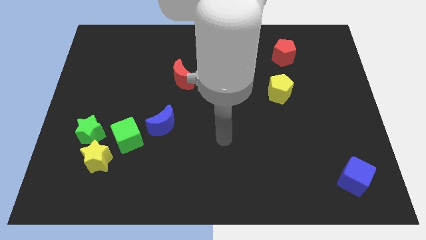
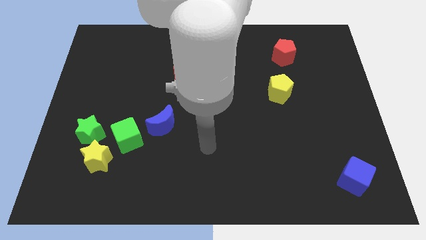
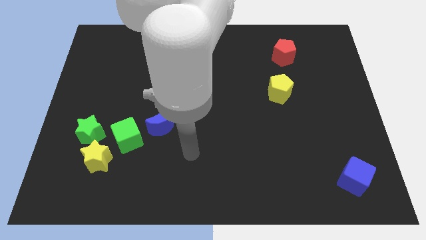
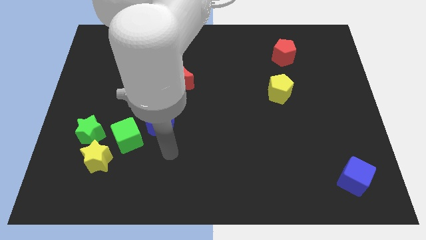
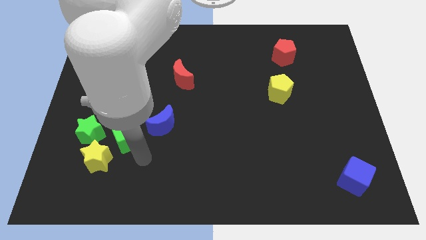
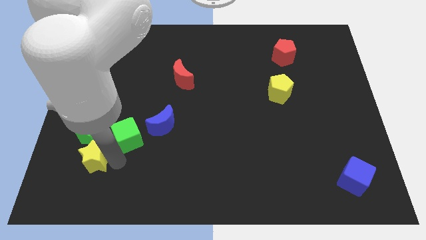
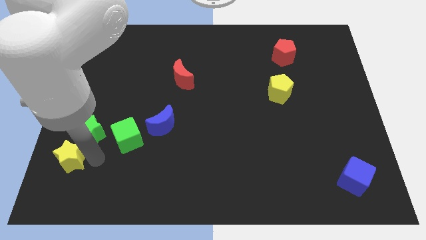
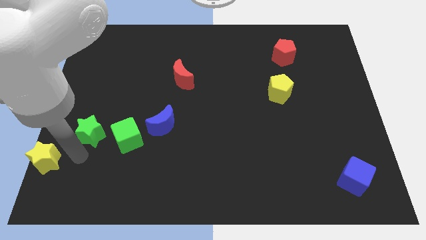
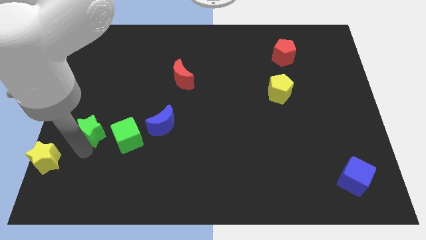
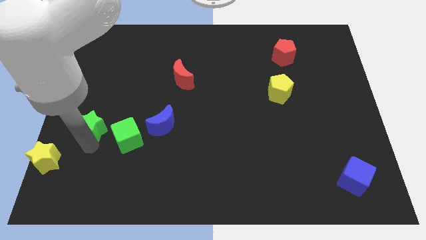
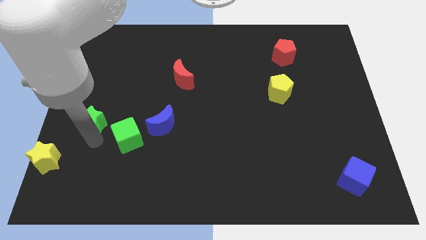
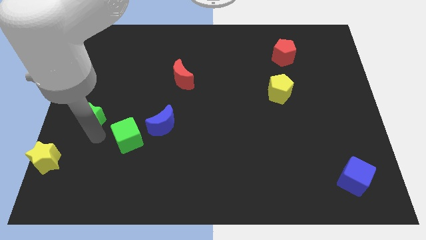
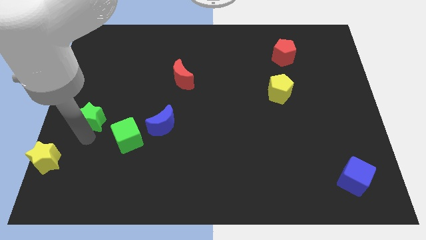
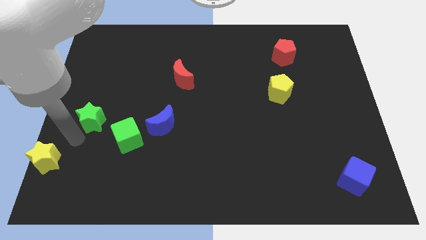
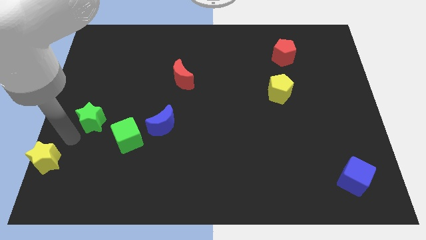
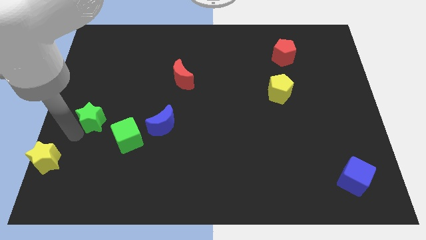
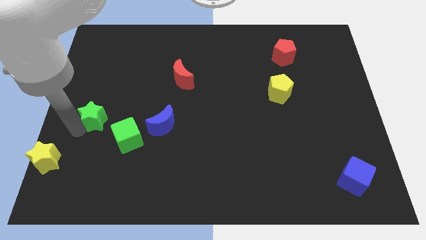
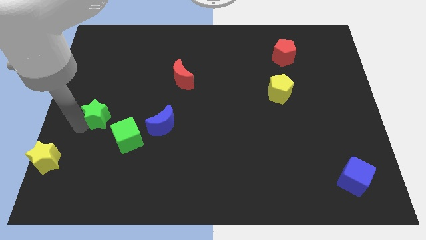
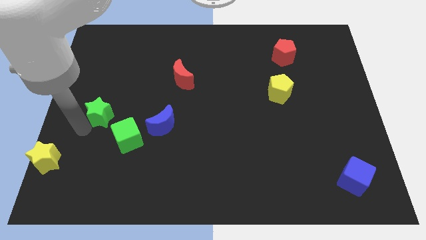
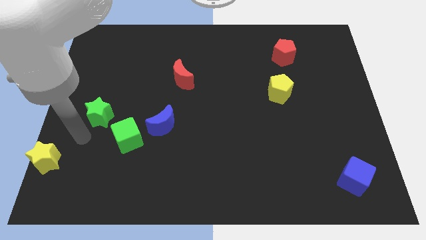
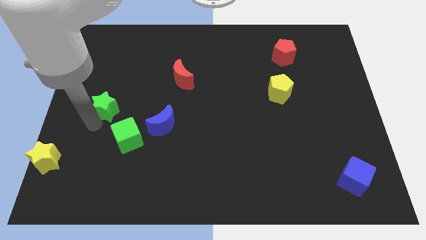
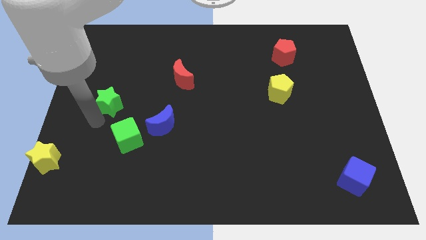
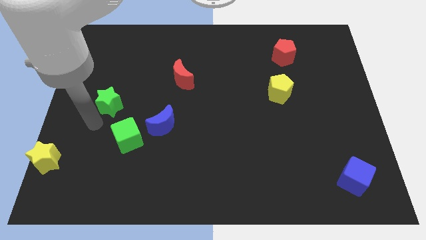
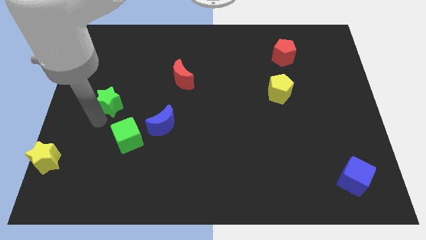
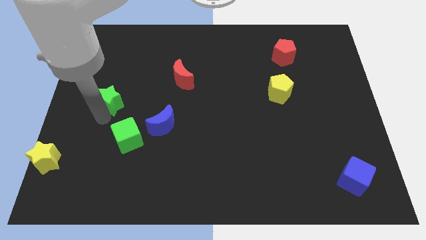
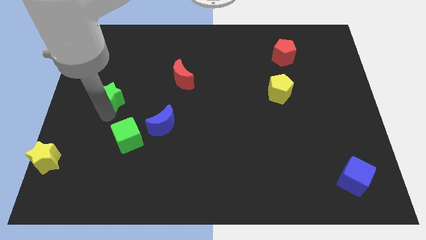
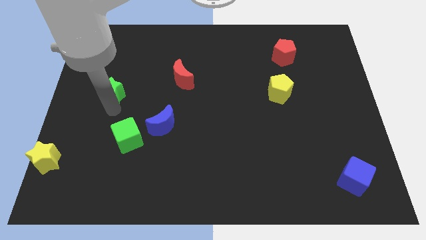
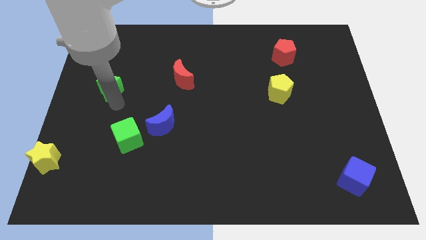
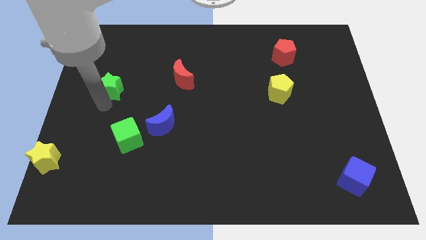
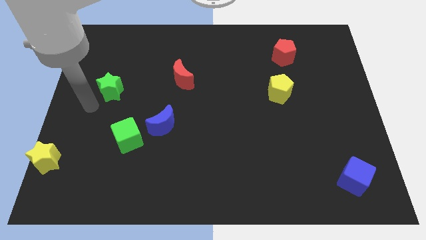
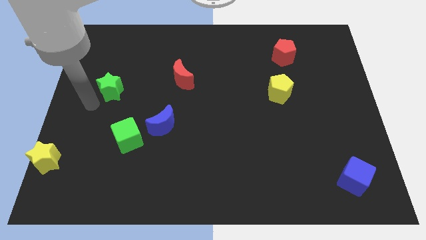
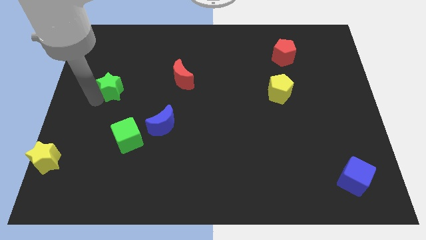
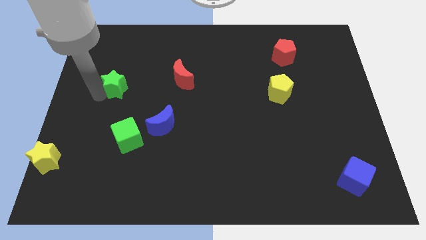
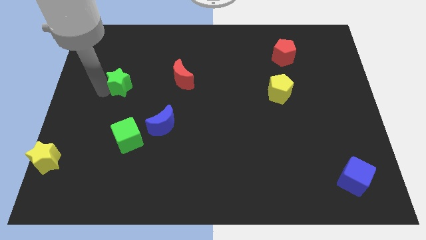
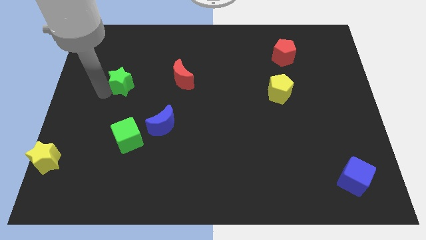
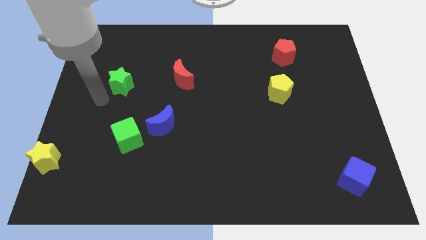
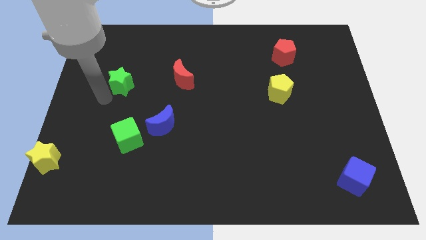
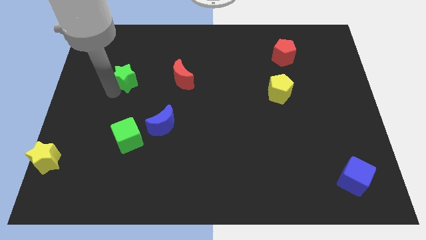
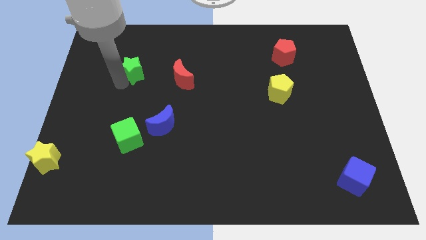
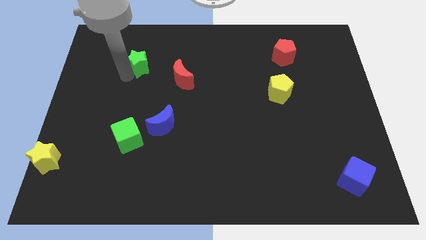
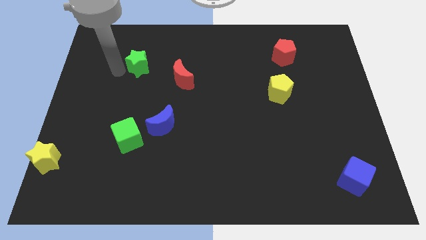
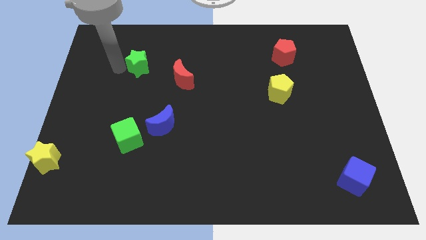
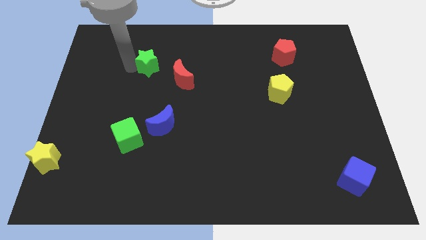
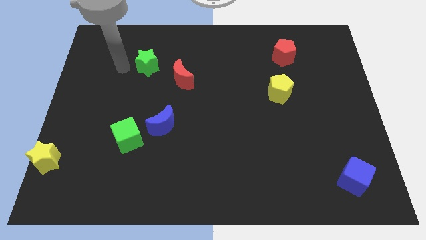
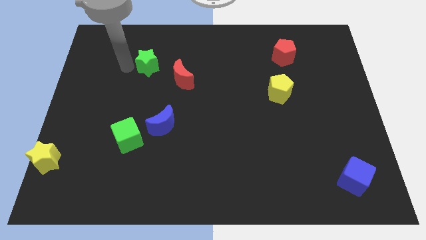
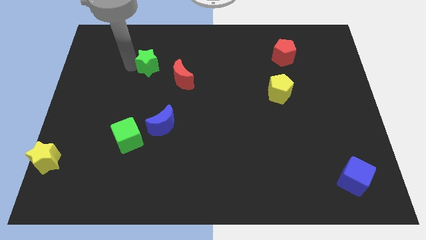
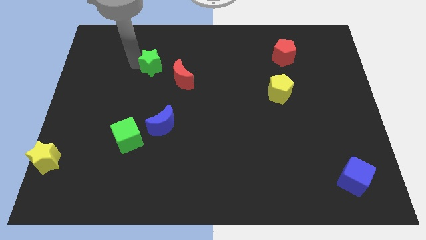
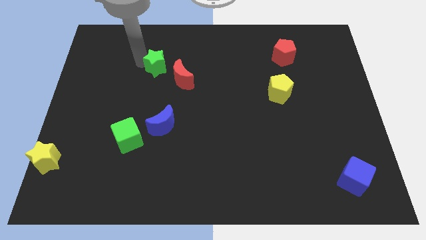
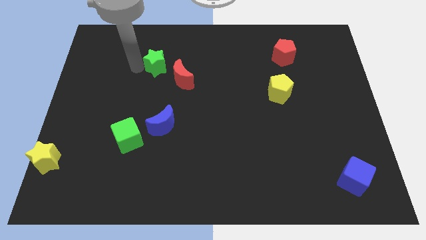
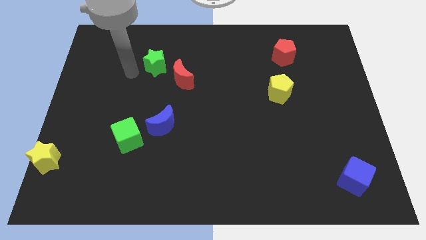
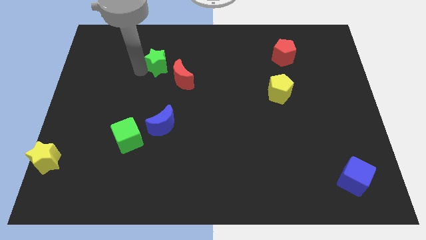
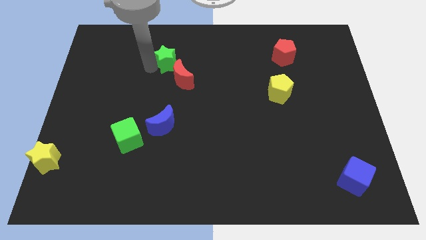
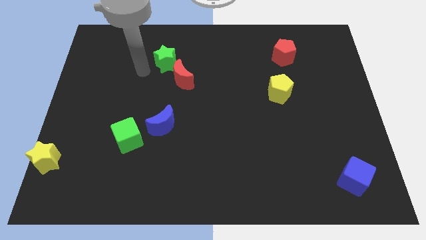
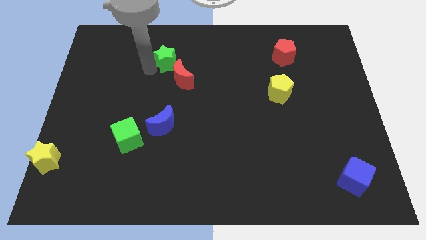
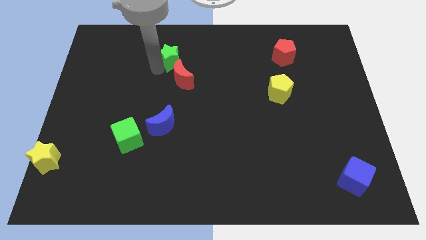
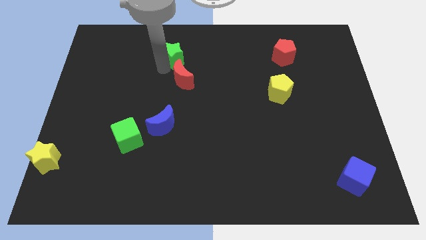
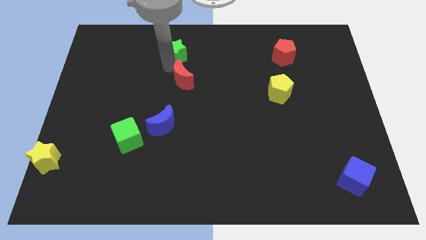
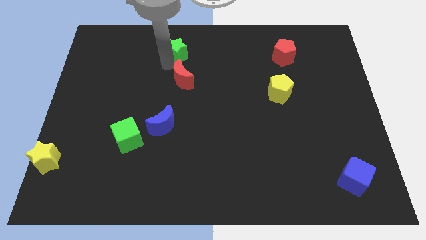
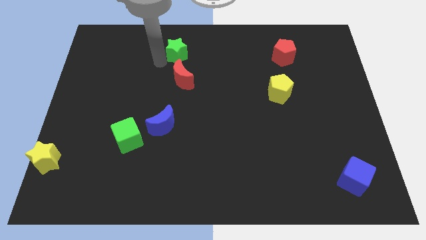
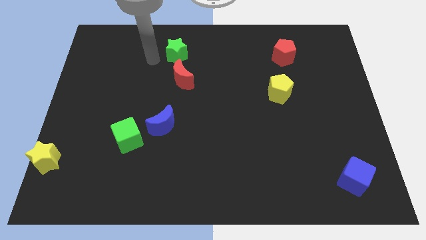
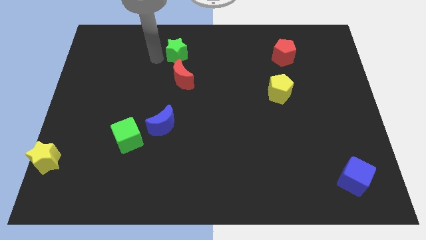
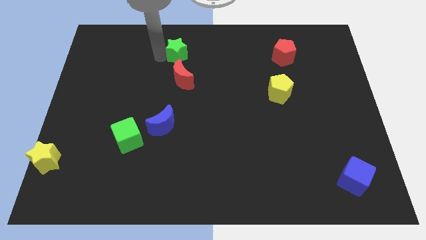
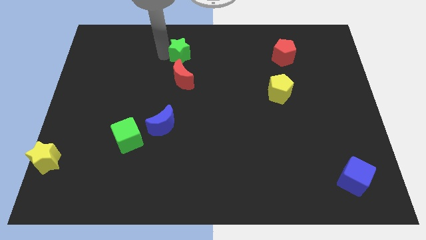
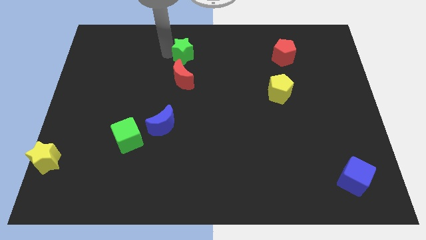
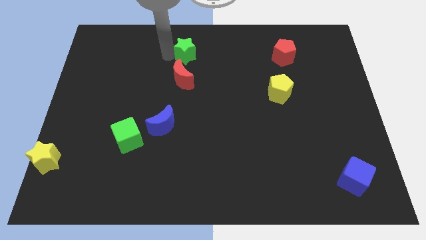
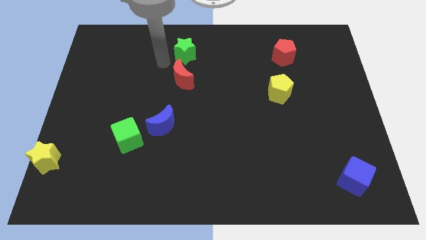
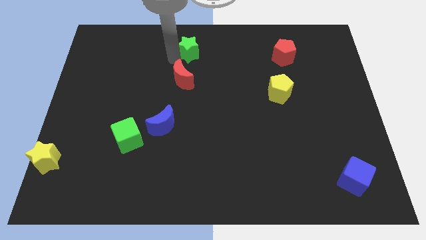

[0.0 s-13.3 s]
put the green star to the top side
